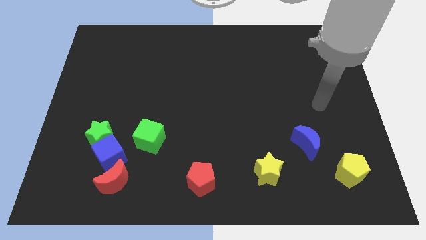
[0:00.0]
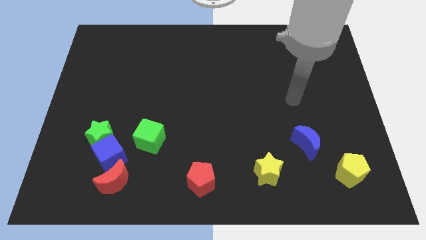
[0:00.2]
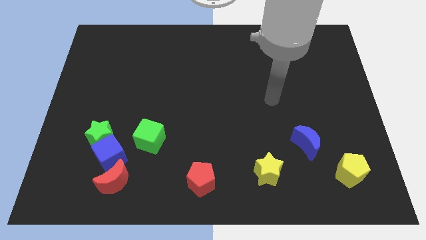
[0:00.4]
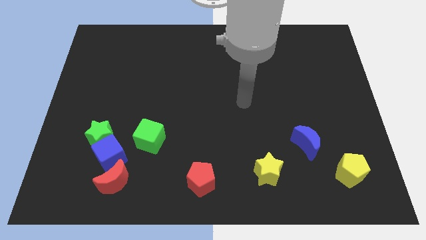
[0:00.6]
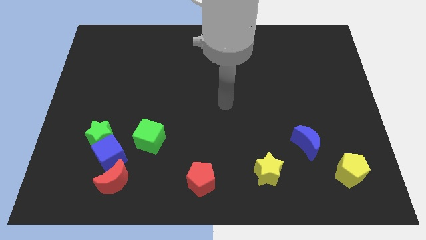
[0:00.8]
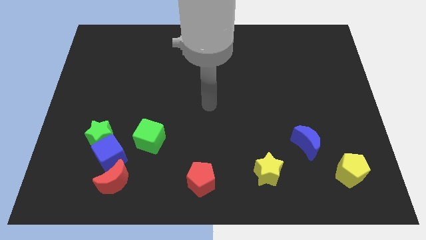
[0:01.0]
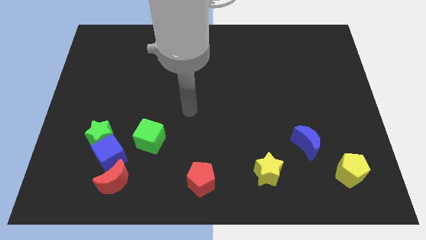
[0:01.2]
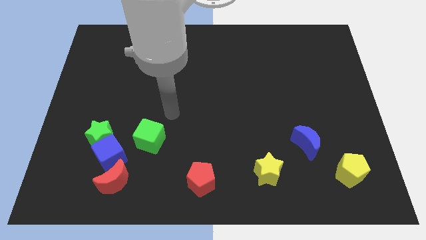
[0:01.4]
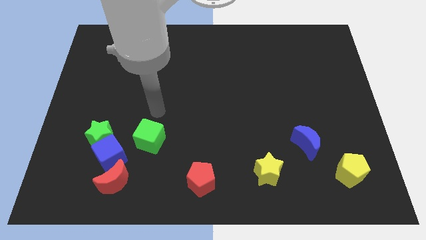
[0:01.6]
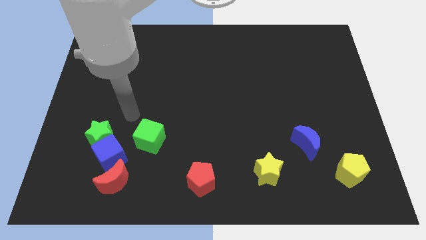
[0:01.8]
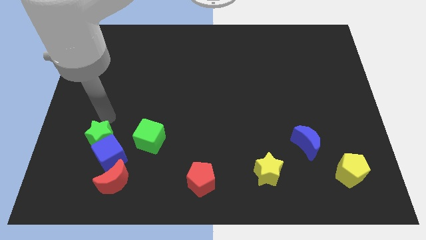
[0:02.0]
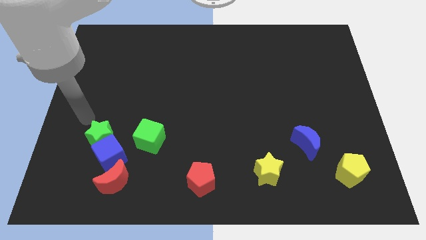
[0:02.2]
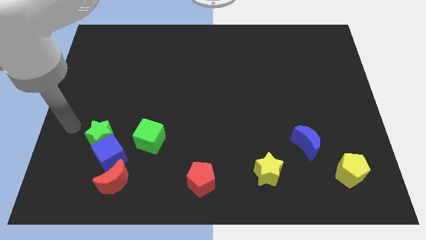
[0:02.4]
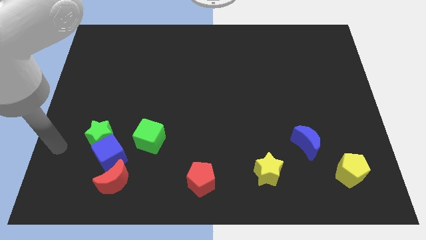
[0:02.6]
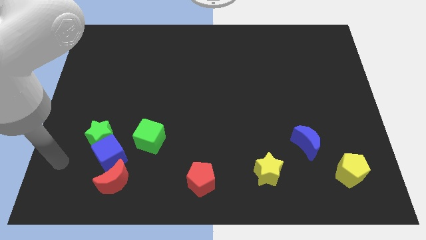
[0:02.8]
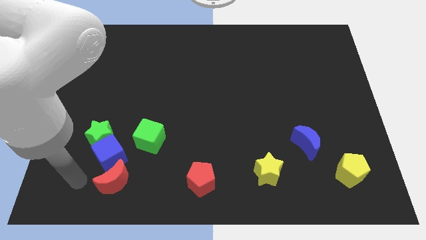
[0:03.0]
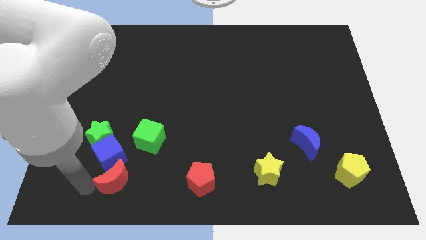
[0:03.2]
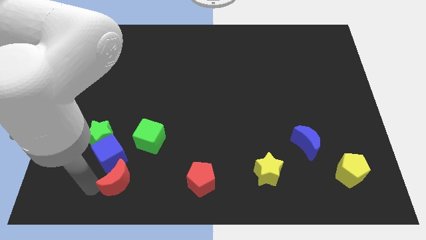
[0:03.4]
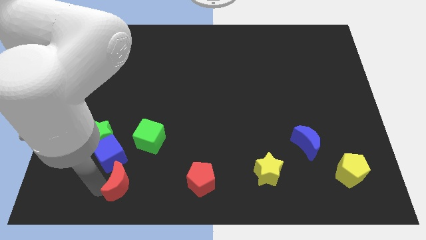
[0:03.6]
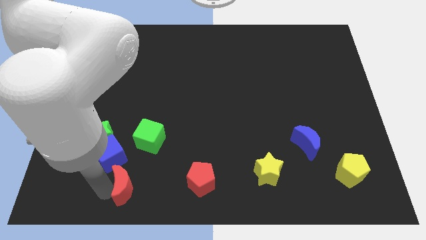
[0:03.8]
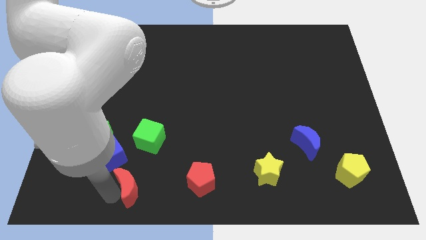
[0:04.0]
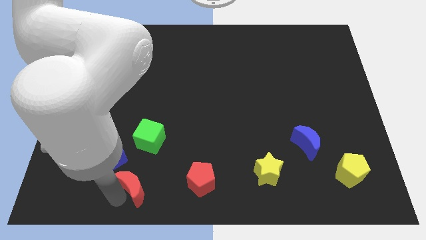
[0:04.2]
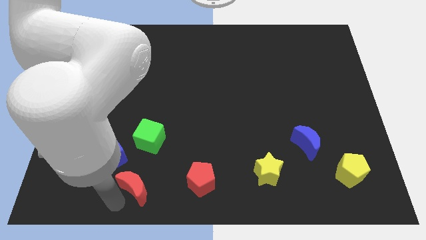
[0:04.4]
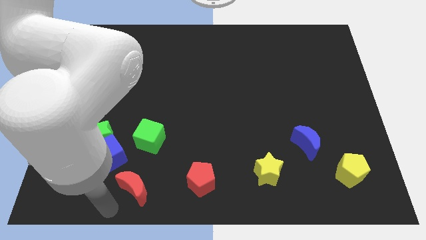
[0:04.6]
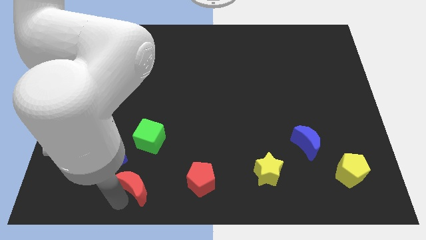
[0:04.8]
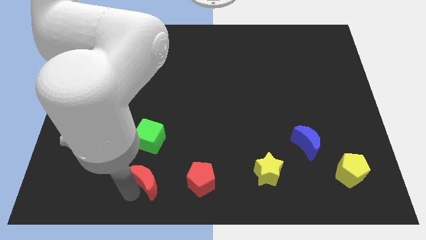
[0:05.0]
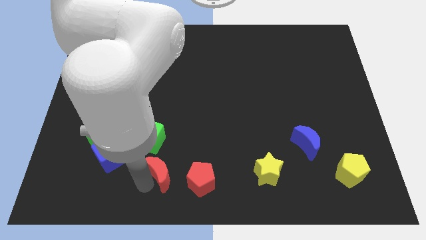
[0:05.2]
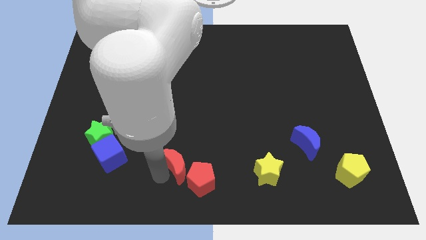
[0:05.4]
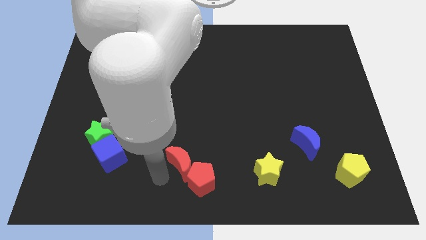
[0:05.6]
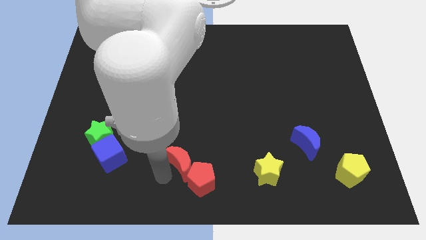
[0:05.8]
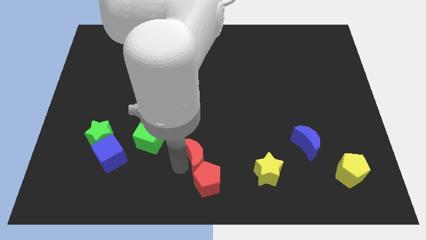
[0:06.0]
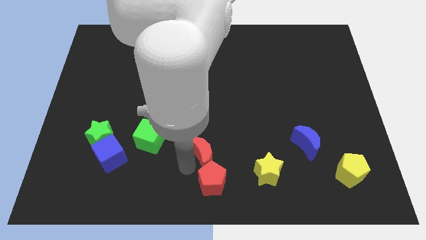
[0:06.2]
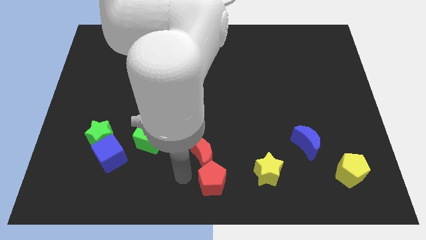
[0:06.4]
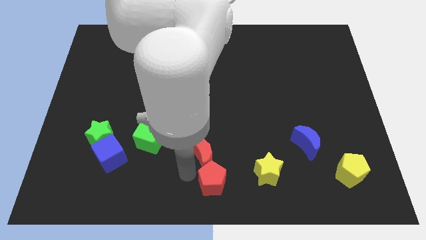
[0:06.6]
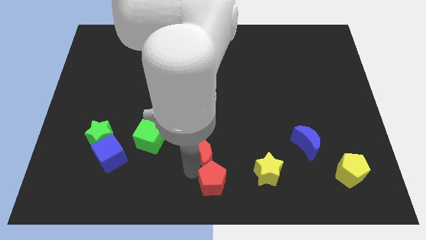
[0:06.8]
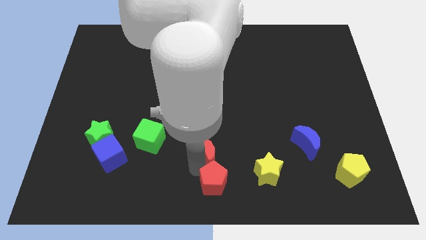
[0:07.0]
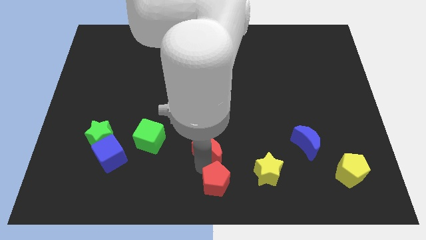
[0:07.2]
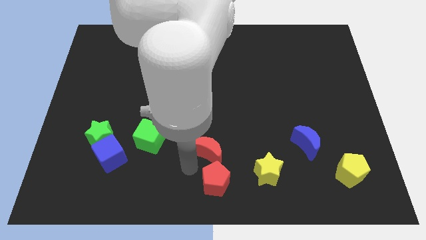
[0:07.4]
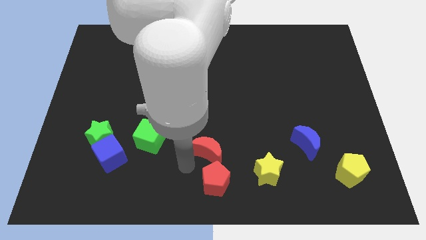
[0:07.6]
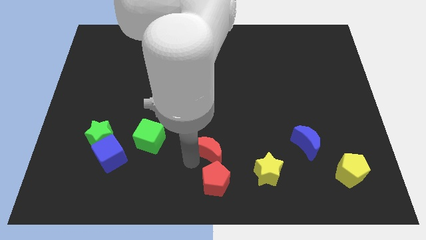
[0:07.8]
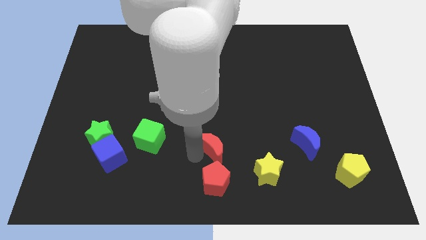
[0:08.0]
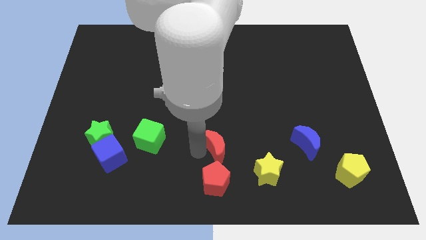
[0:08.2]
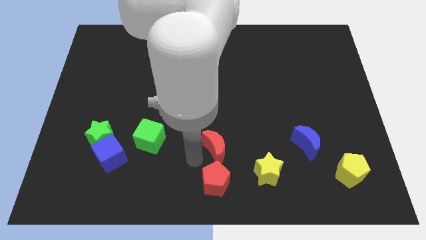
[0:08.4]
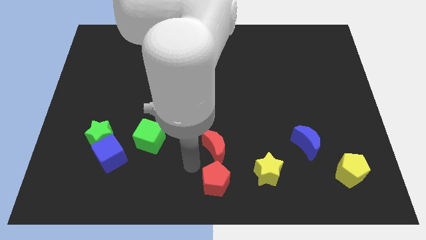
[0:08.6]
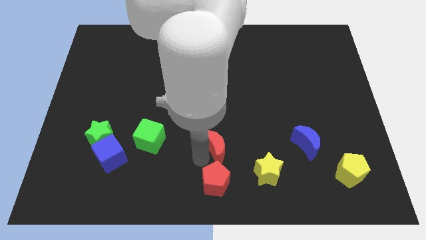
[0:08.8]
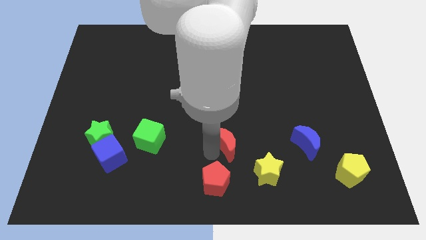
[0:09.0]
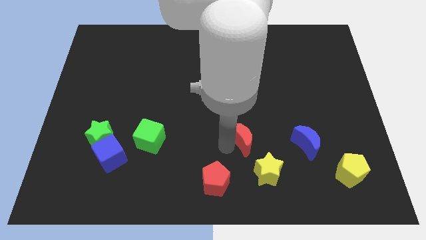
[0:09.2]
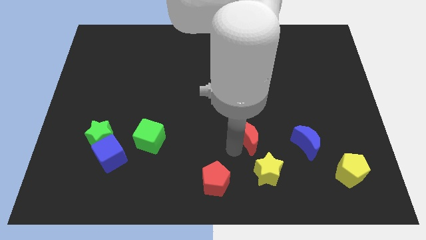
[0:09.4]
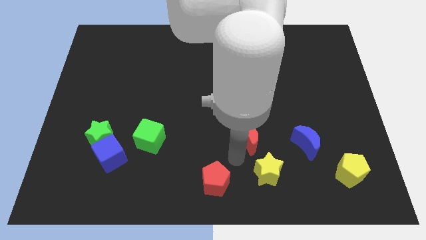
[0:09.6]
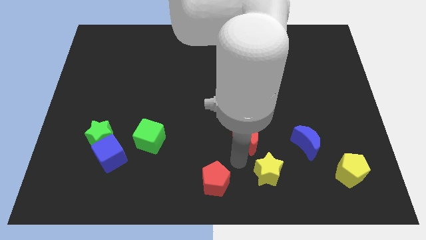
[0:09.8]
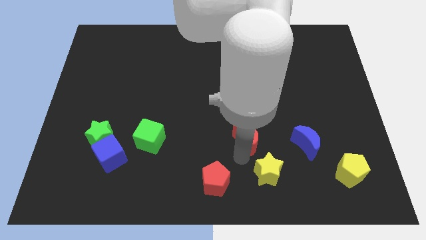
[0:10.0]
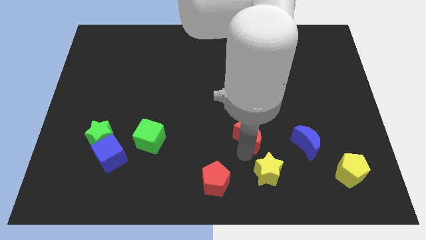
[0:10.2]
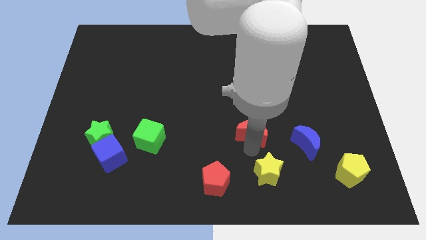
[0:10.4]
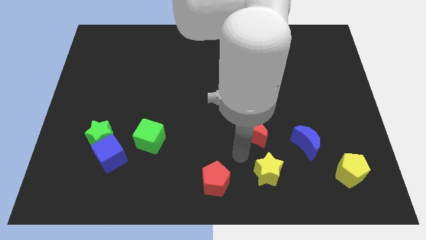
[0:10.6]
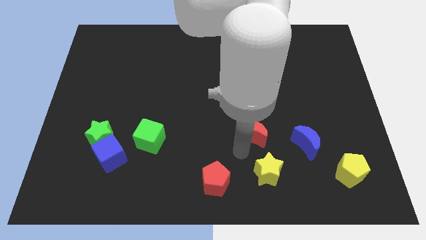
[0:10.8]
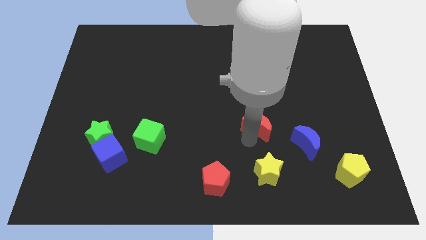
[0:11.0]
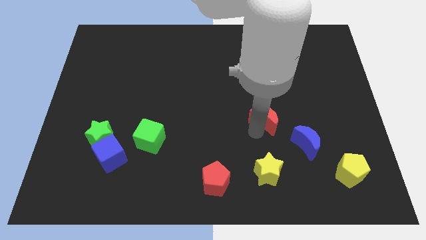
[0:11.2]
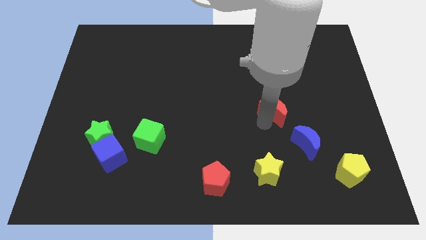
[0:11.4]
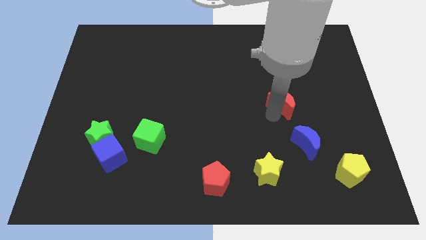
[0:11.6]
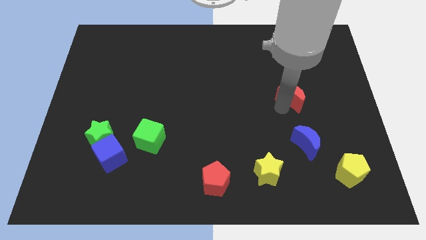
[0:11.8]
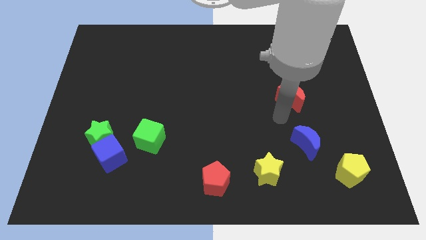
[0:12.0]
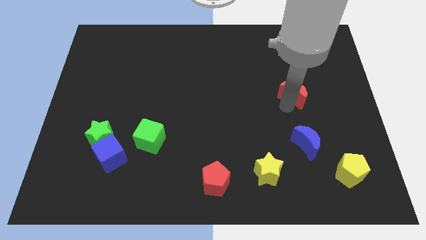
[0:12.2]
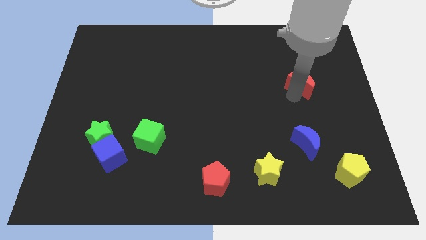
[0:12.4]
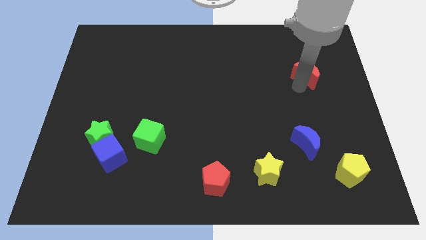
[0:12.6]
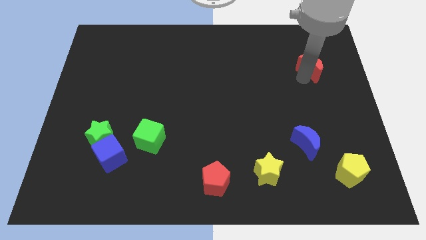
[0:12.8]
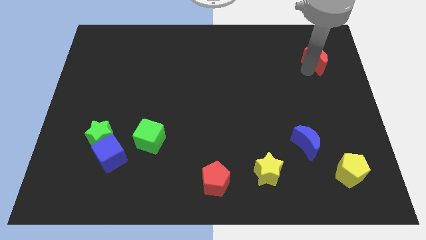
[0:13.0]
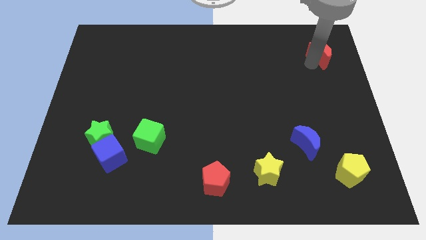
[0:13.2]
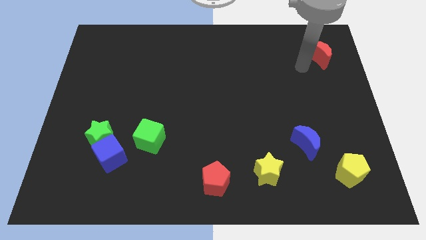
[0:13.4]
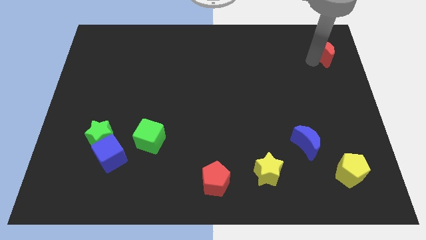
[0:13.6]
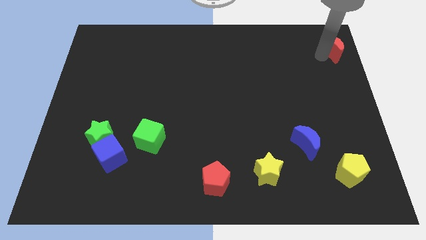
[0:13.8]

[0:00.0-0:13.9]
put the red moon to the upper right corner
